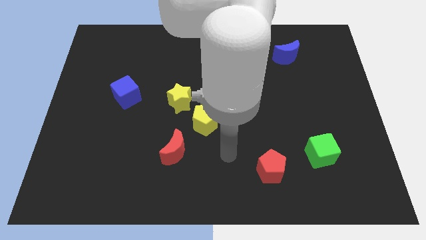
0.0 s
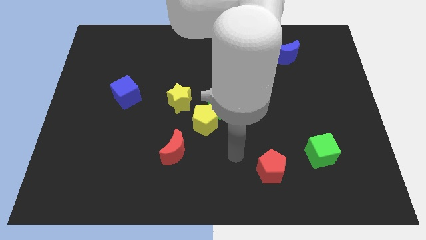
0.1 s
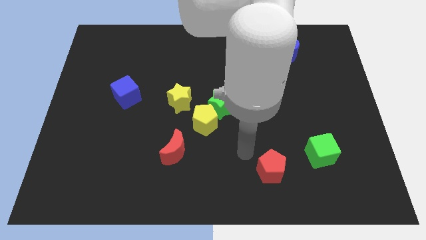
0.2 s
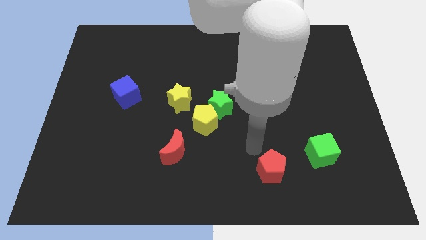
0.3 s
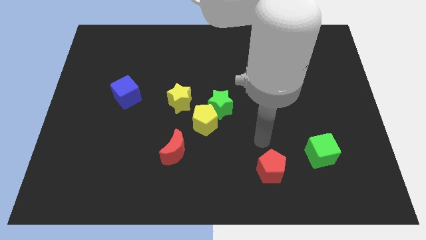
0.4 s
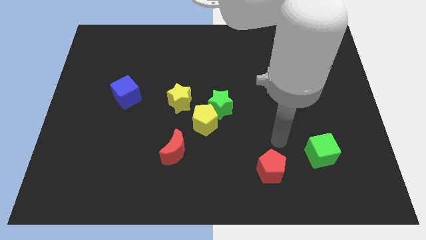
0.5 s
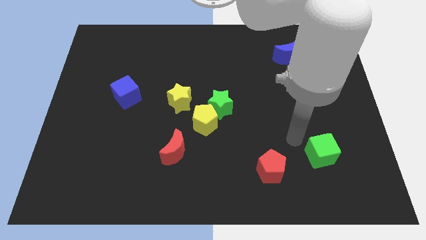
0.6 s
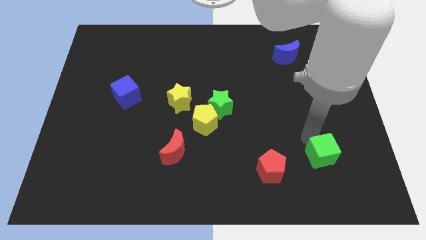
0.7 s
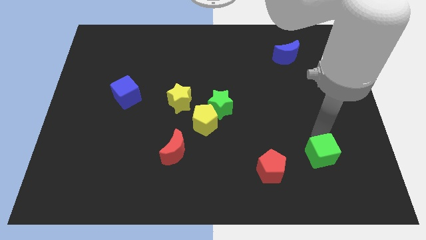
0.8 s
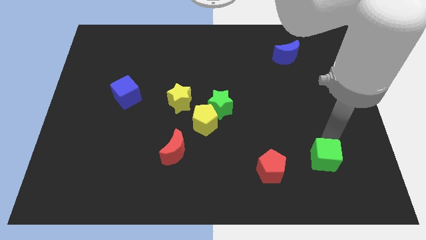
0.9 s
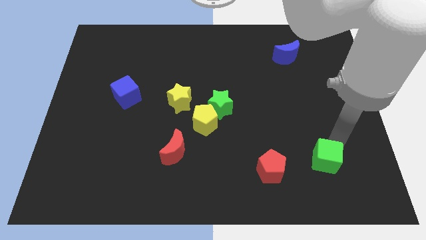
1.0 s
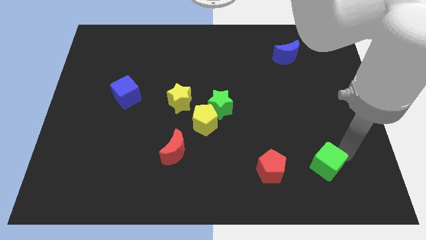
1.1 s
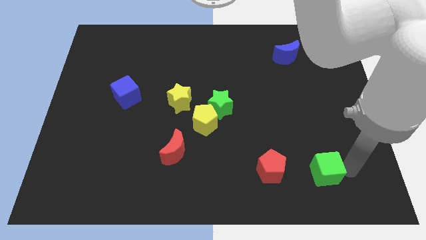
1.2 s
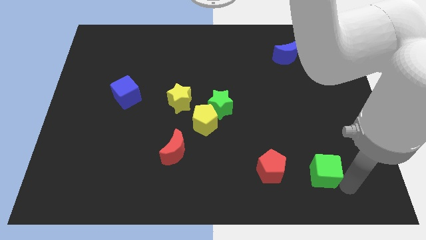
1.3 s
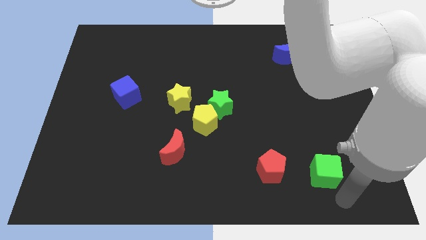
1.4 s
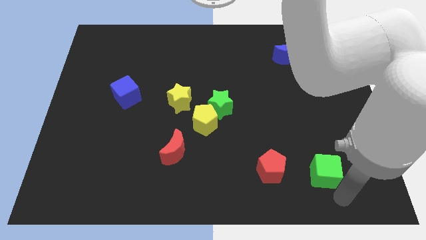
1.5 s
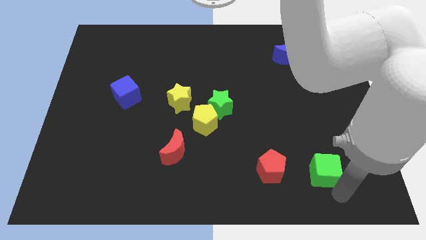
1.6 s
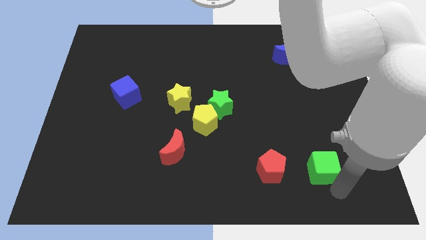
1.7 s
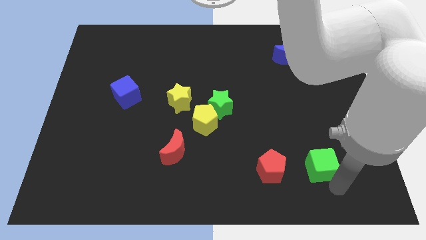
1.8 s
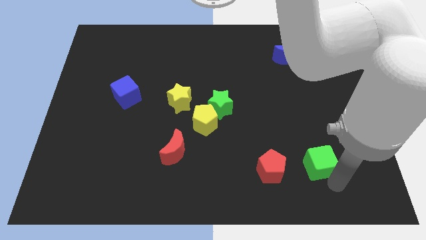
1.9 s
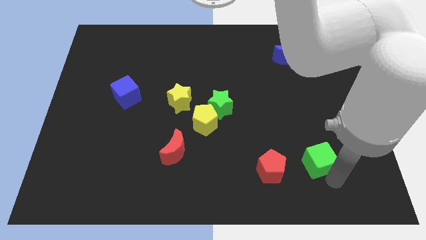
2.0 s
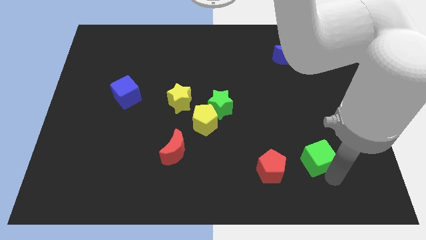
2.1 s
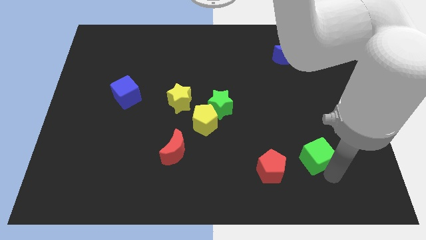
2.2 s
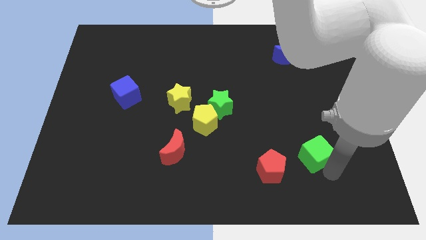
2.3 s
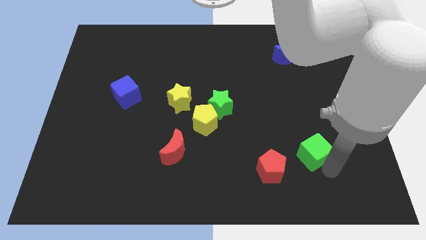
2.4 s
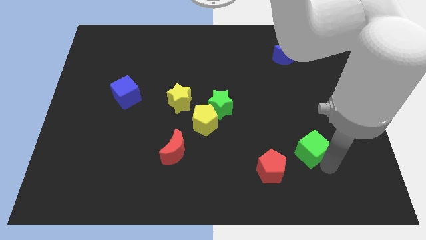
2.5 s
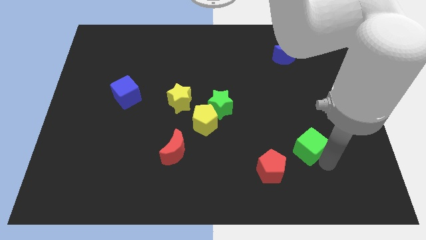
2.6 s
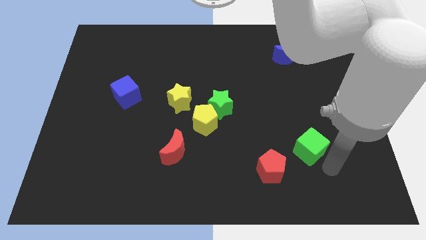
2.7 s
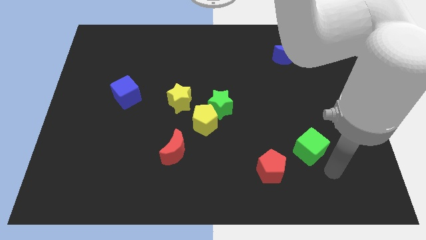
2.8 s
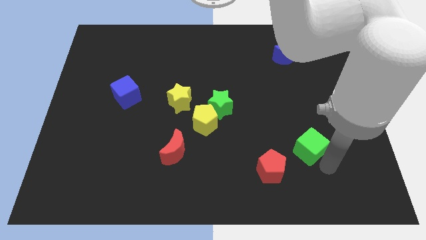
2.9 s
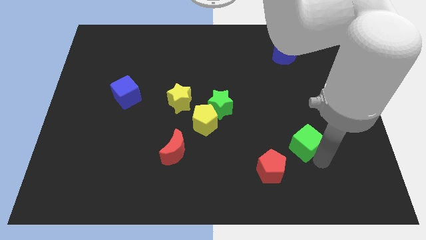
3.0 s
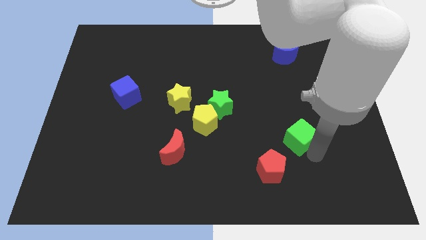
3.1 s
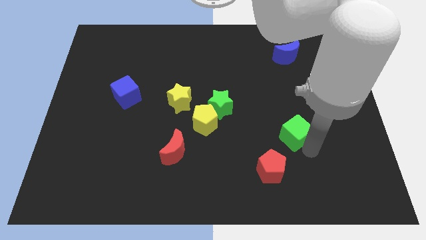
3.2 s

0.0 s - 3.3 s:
slide the green cube a little bit up and to the left diagonally

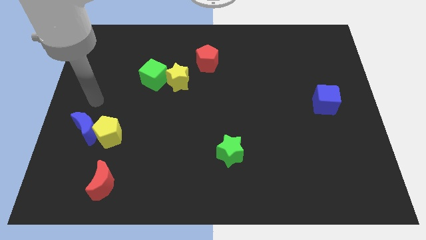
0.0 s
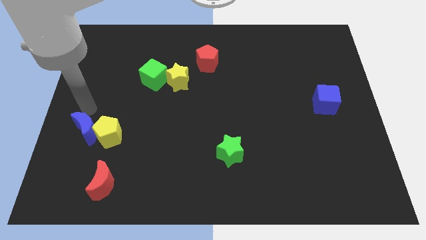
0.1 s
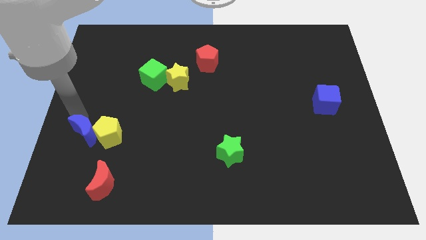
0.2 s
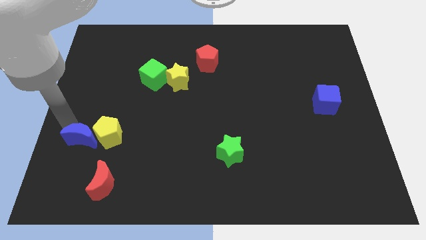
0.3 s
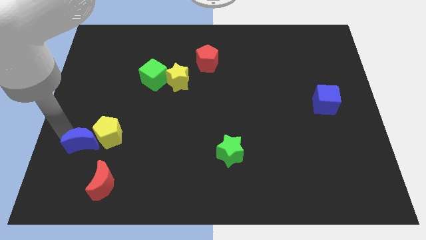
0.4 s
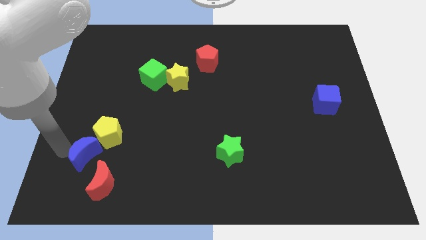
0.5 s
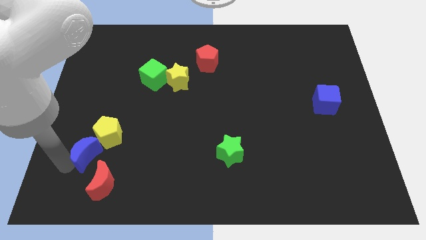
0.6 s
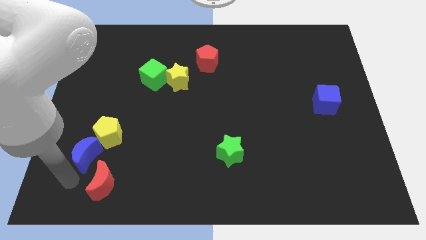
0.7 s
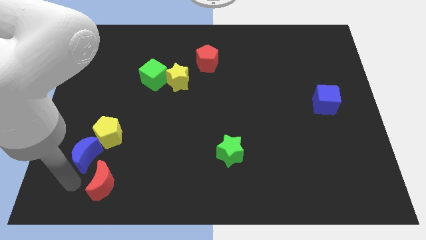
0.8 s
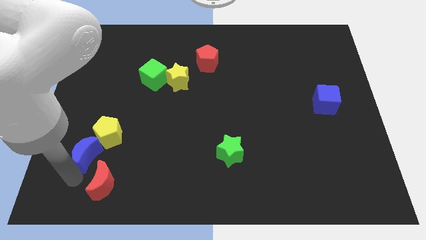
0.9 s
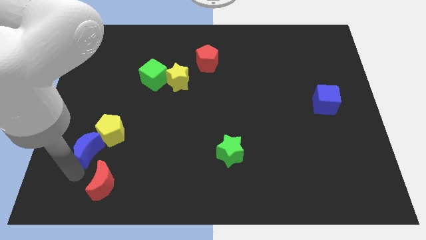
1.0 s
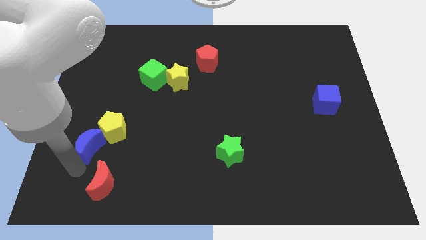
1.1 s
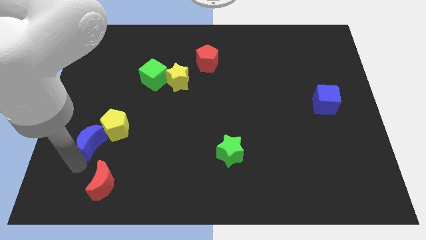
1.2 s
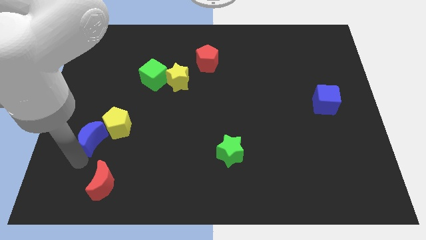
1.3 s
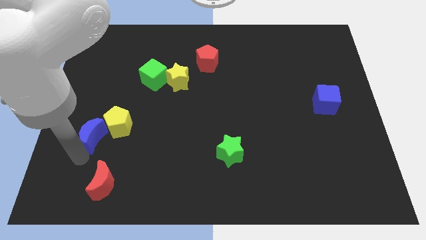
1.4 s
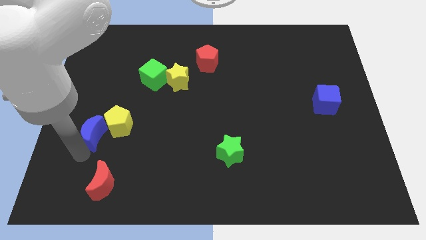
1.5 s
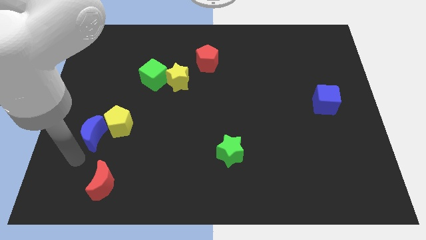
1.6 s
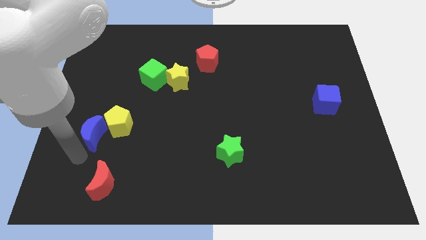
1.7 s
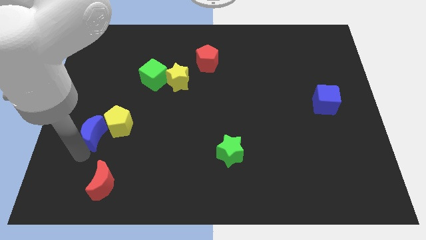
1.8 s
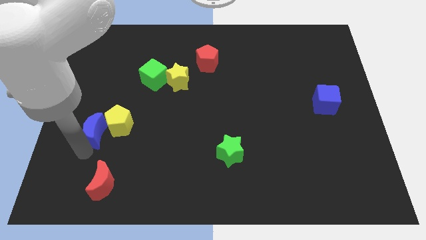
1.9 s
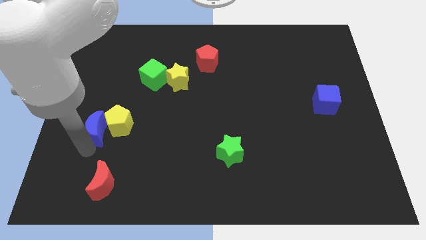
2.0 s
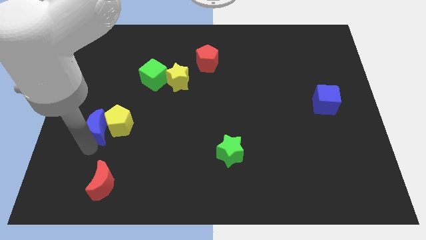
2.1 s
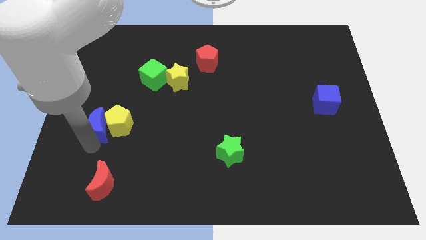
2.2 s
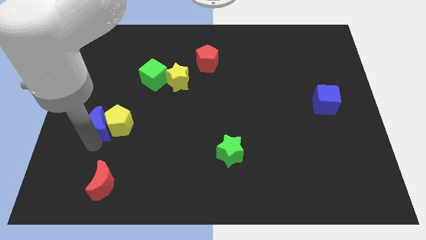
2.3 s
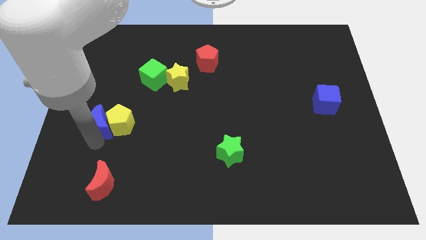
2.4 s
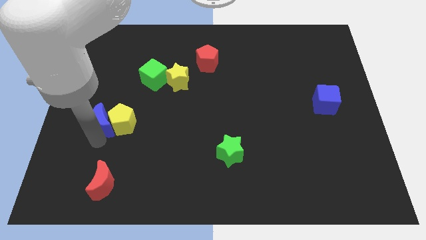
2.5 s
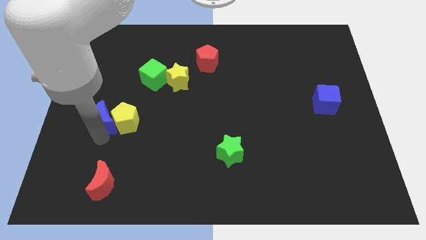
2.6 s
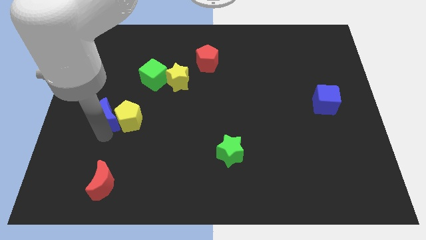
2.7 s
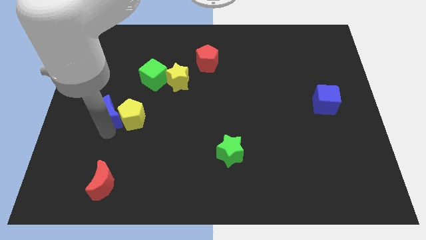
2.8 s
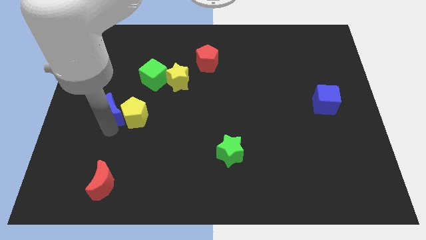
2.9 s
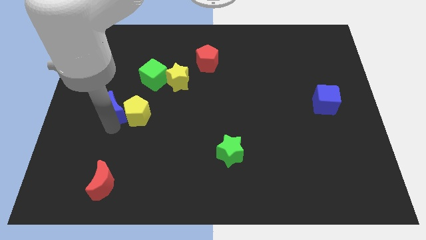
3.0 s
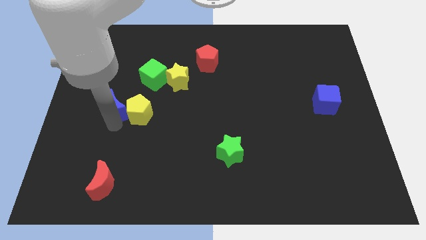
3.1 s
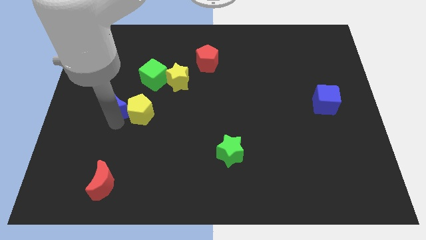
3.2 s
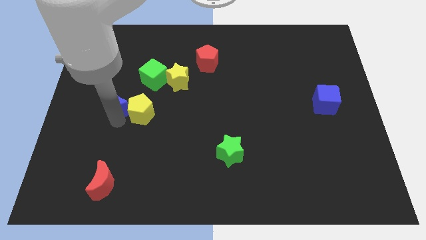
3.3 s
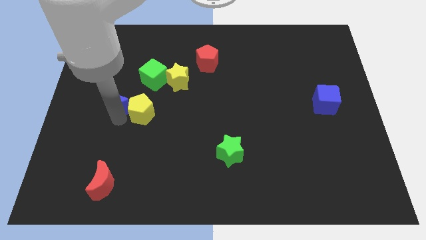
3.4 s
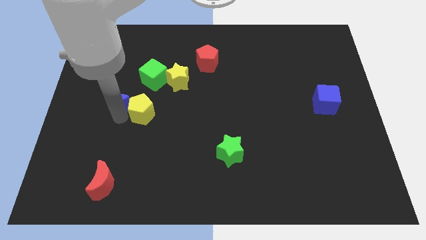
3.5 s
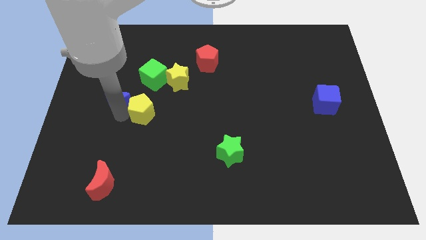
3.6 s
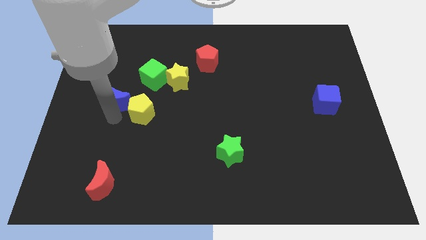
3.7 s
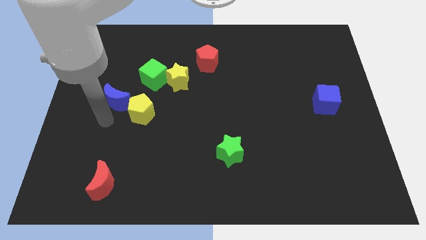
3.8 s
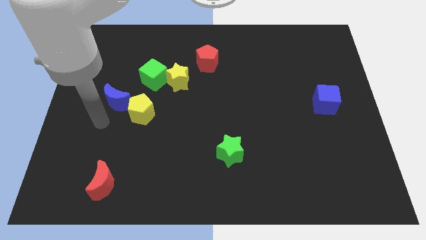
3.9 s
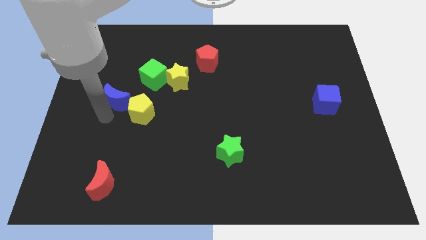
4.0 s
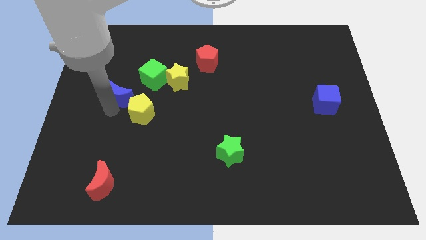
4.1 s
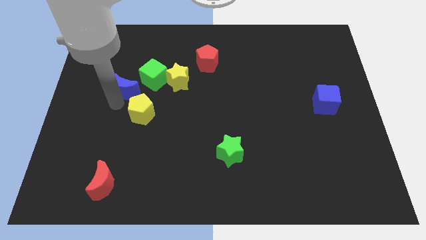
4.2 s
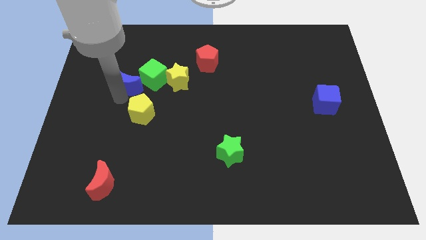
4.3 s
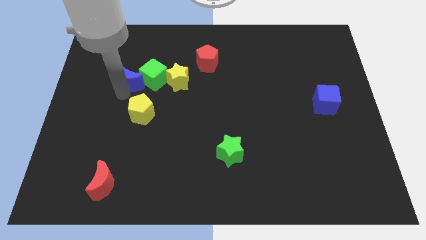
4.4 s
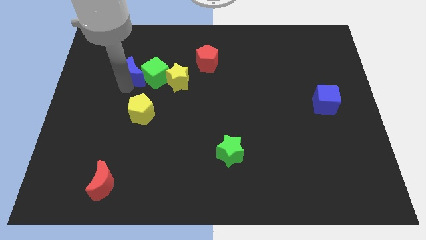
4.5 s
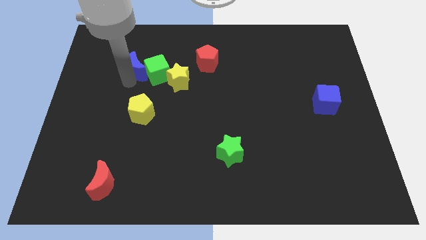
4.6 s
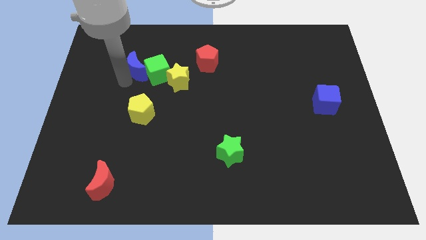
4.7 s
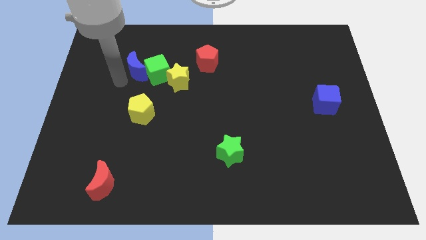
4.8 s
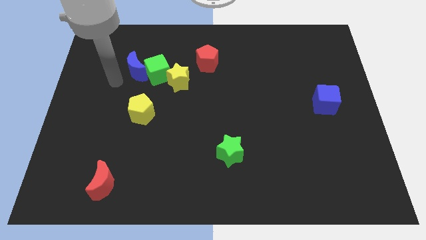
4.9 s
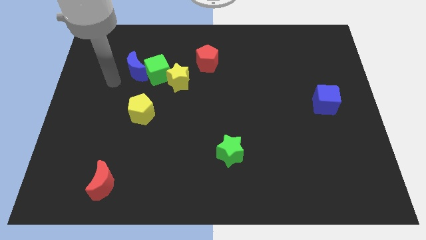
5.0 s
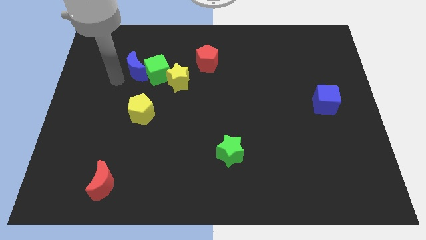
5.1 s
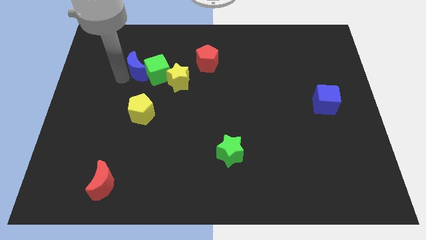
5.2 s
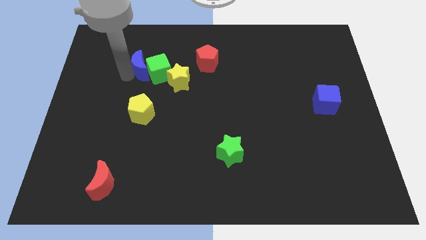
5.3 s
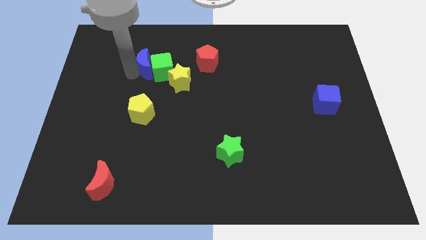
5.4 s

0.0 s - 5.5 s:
slide the blue moon upwards and to the right
